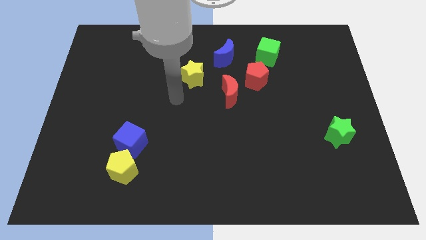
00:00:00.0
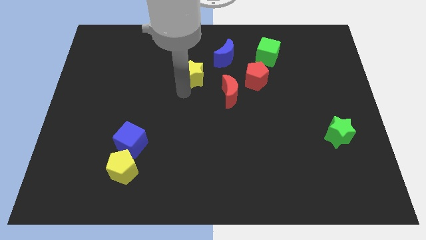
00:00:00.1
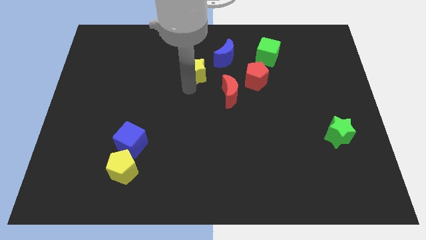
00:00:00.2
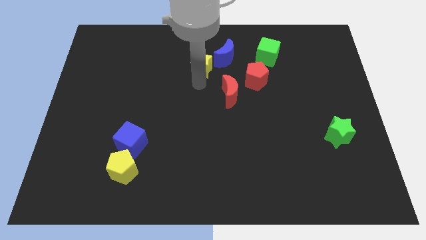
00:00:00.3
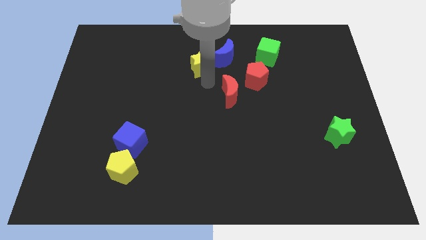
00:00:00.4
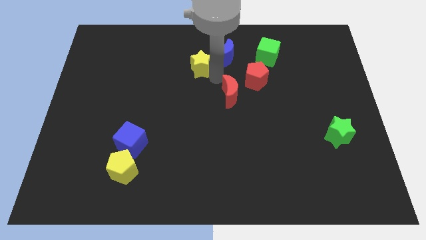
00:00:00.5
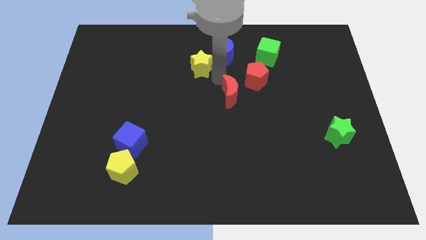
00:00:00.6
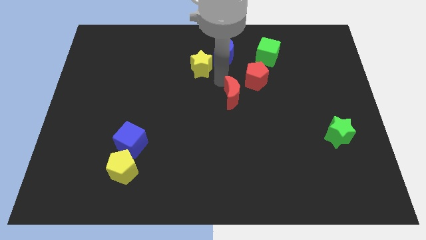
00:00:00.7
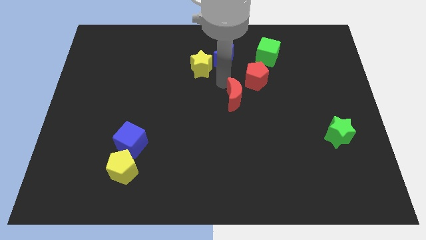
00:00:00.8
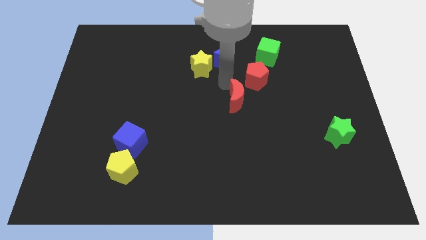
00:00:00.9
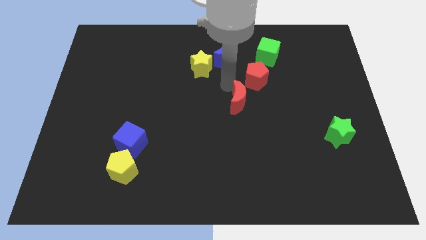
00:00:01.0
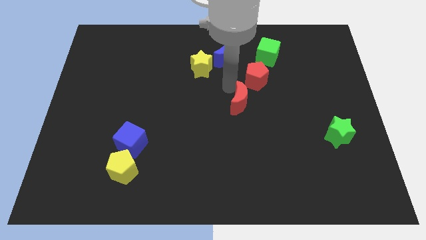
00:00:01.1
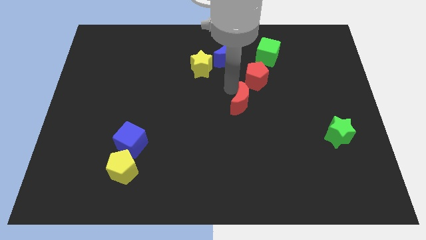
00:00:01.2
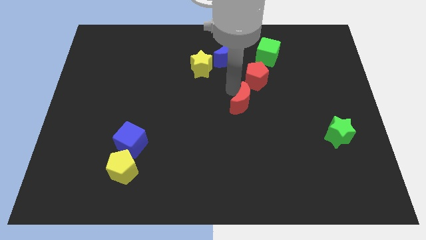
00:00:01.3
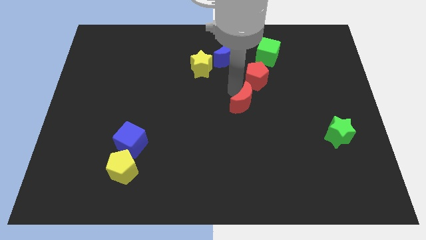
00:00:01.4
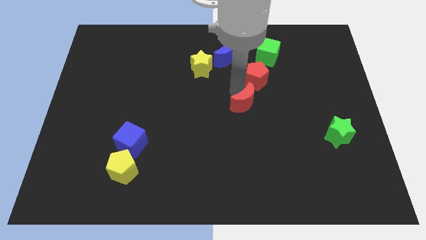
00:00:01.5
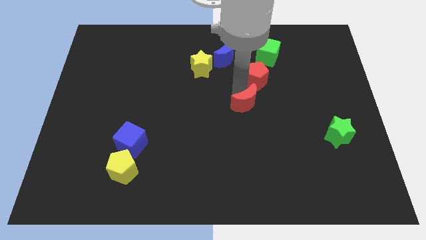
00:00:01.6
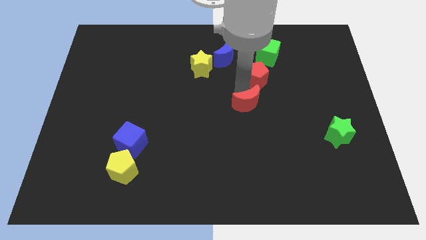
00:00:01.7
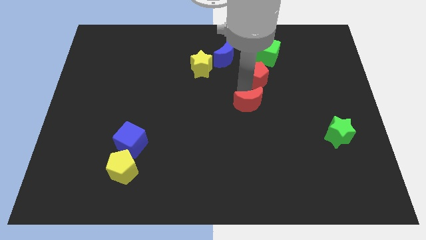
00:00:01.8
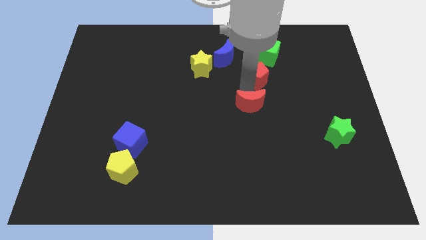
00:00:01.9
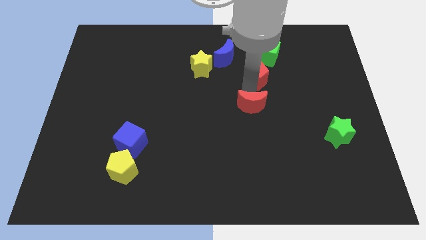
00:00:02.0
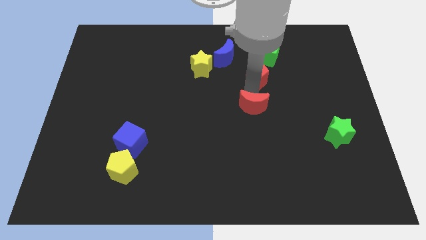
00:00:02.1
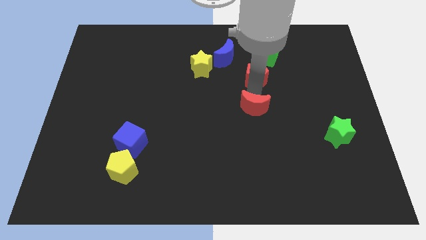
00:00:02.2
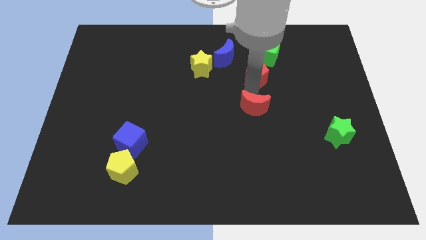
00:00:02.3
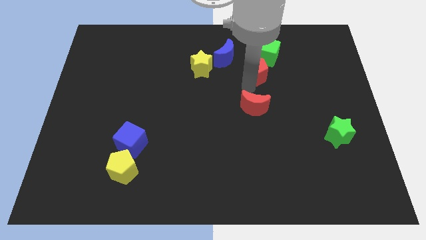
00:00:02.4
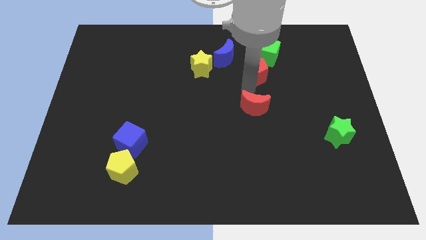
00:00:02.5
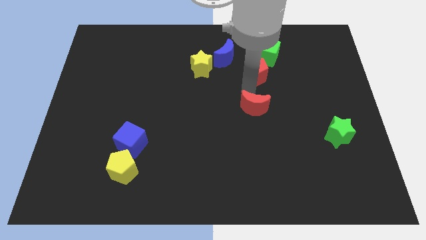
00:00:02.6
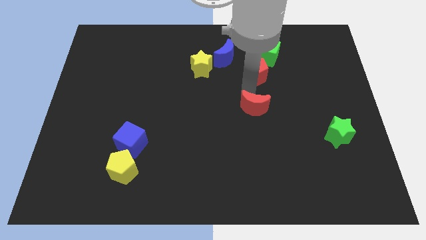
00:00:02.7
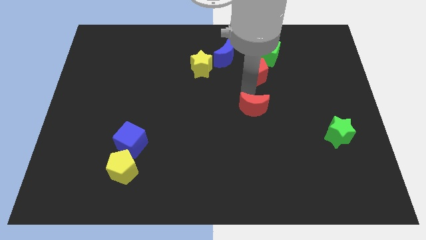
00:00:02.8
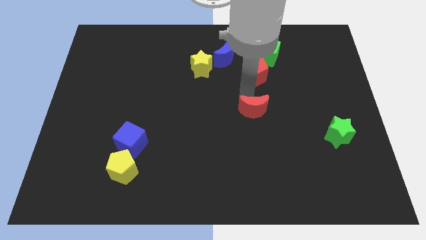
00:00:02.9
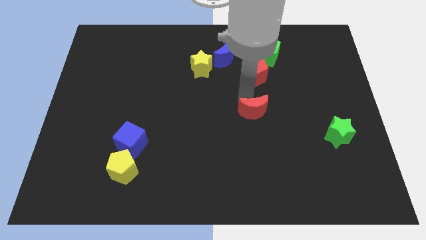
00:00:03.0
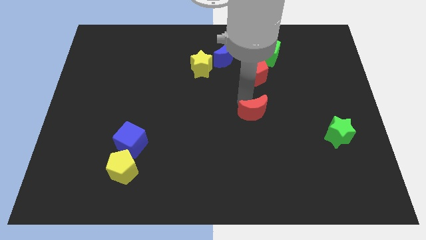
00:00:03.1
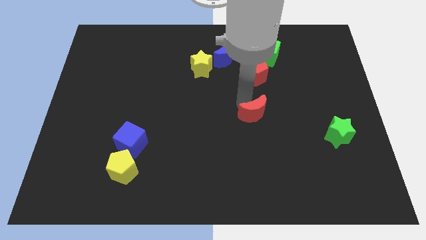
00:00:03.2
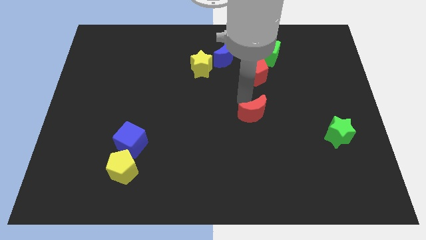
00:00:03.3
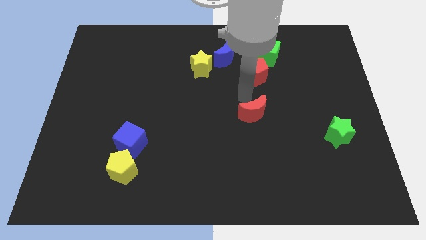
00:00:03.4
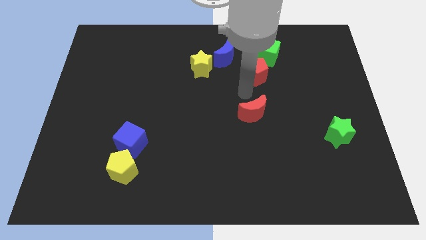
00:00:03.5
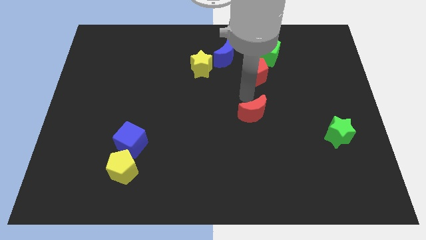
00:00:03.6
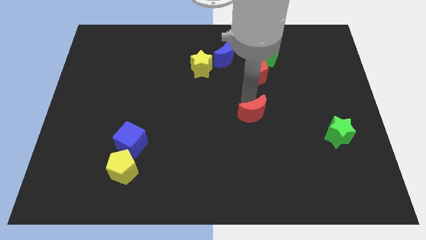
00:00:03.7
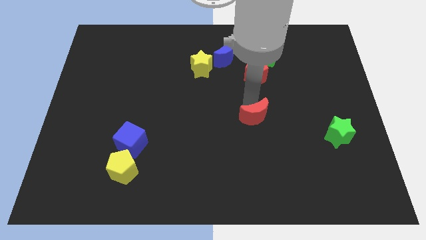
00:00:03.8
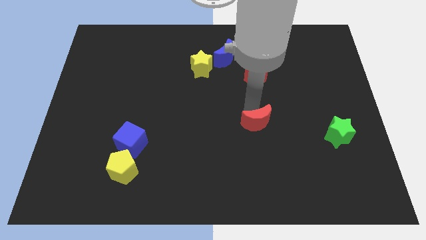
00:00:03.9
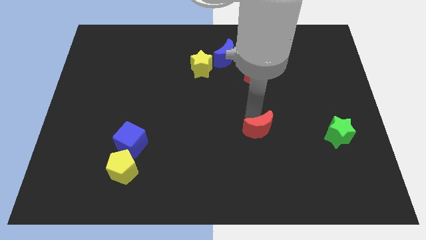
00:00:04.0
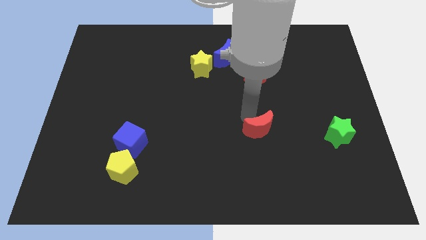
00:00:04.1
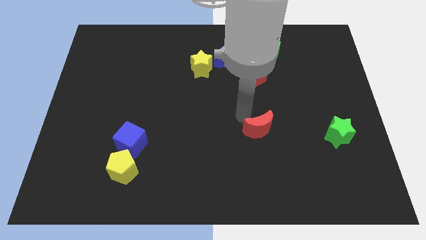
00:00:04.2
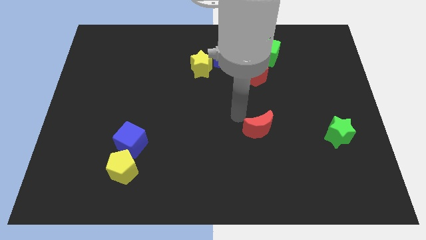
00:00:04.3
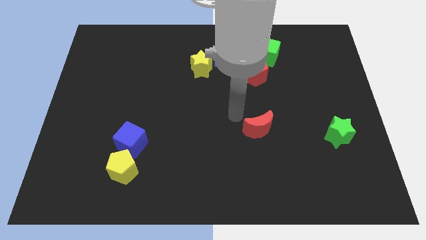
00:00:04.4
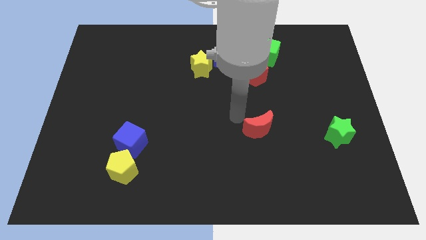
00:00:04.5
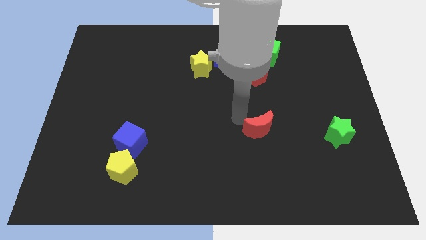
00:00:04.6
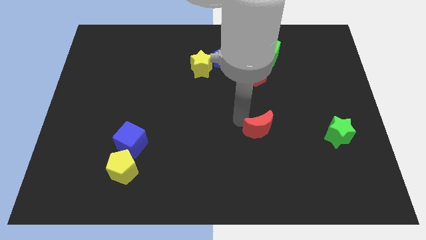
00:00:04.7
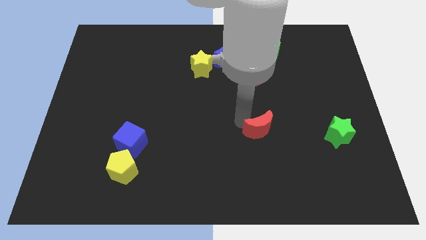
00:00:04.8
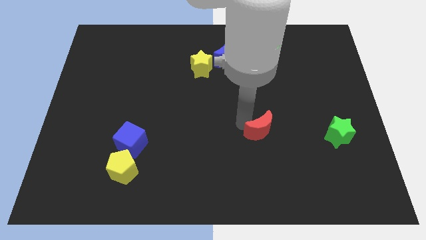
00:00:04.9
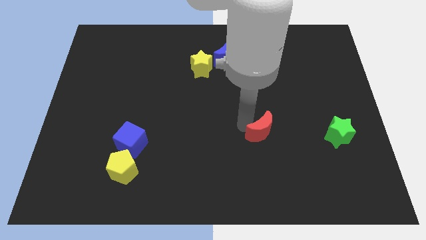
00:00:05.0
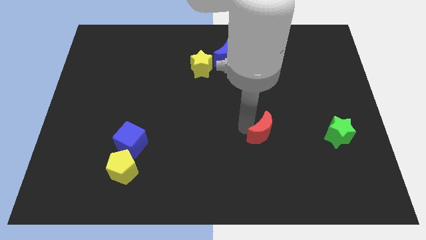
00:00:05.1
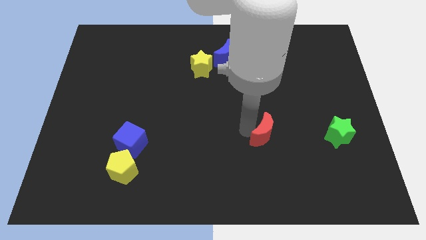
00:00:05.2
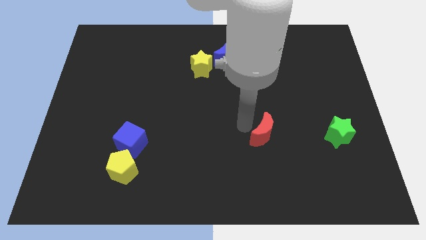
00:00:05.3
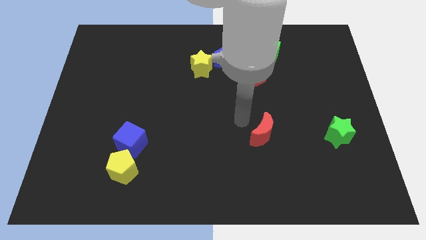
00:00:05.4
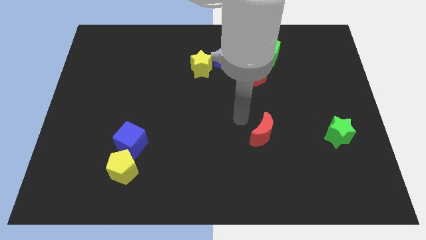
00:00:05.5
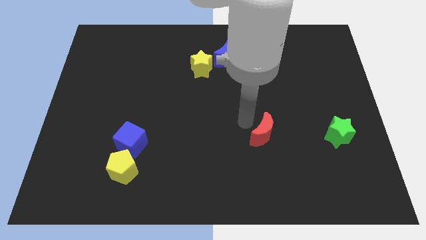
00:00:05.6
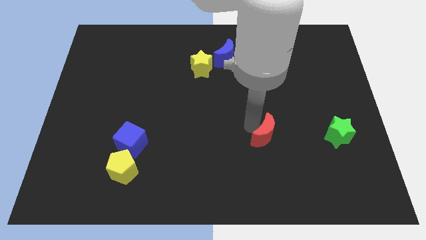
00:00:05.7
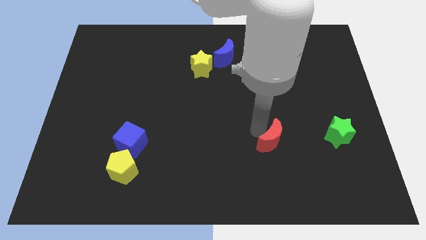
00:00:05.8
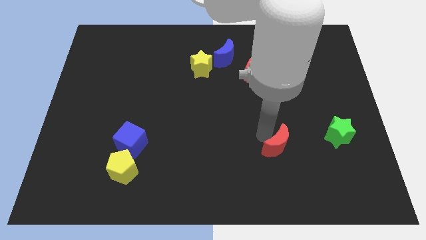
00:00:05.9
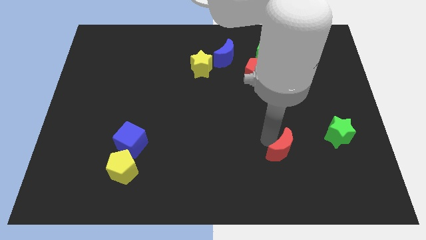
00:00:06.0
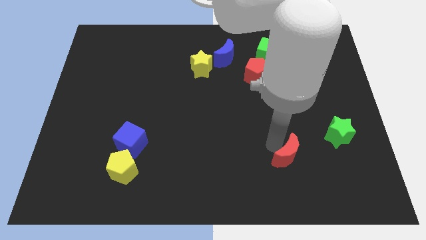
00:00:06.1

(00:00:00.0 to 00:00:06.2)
move the red moon downwards and to the right diagonally

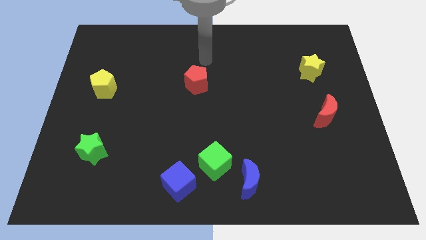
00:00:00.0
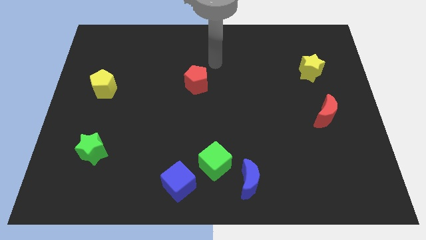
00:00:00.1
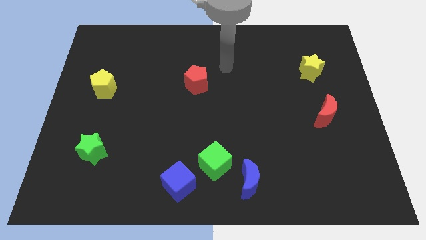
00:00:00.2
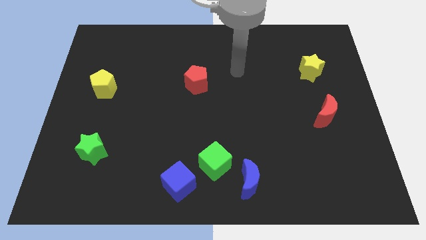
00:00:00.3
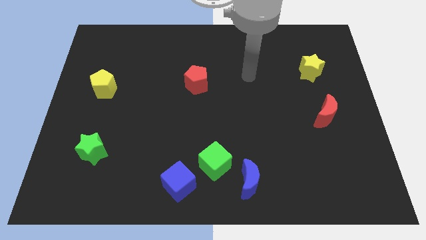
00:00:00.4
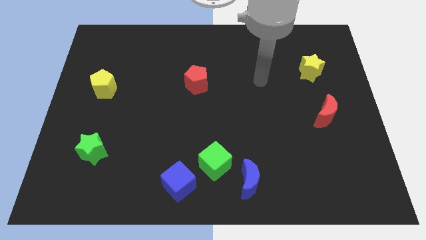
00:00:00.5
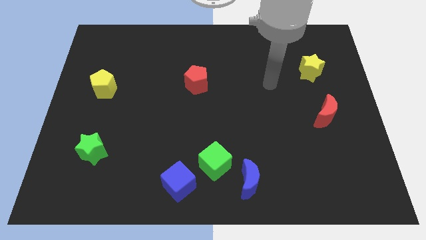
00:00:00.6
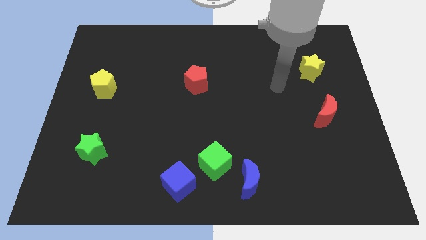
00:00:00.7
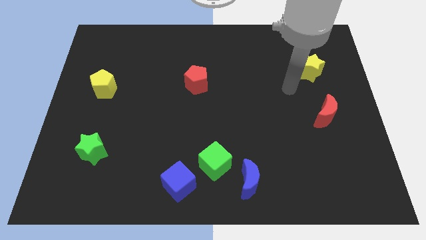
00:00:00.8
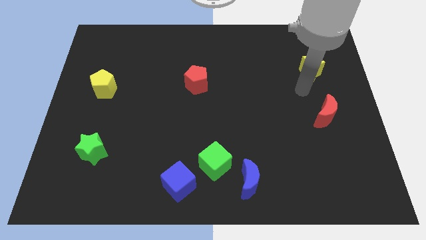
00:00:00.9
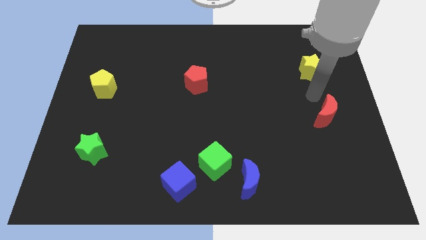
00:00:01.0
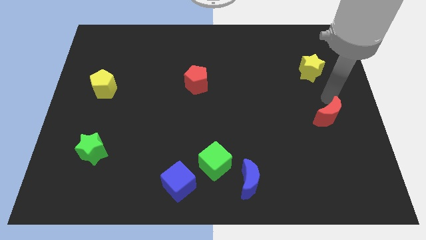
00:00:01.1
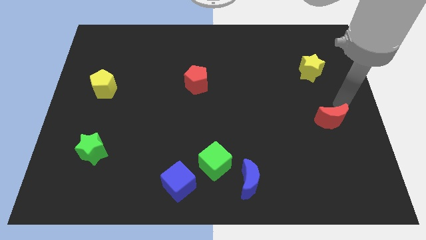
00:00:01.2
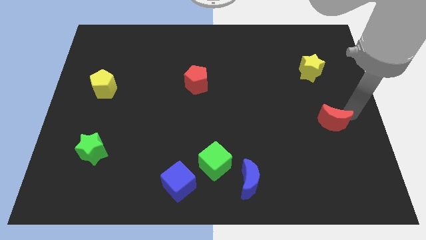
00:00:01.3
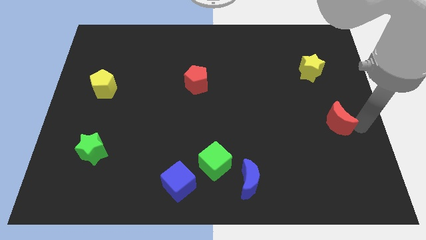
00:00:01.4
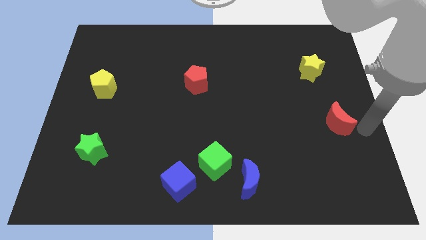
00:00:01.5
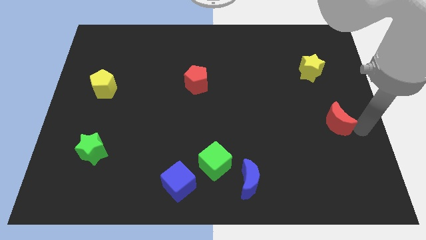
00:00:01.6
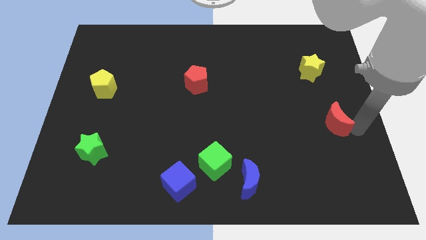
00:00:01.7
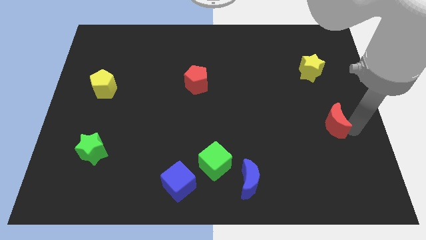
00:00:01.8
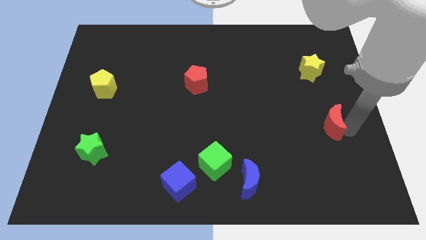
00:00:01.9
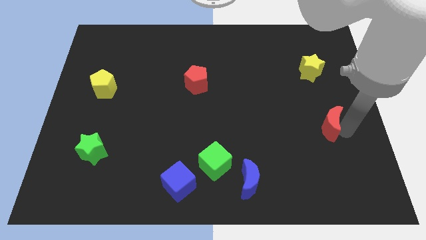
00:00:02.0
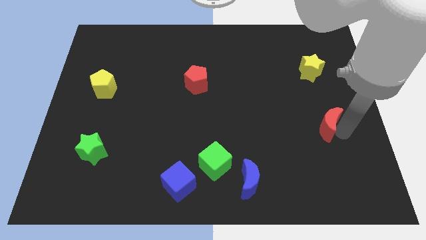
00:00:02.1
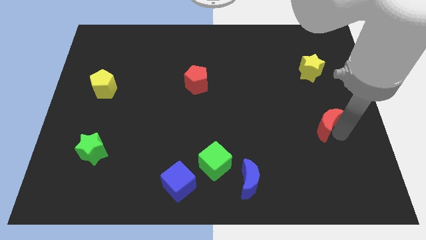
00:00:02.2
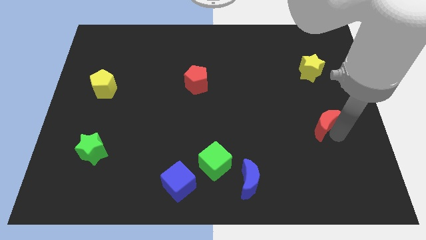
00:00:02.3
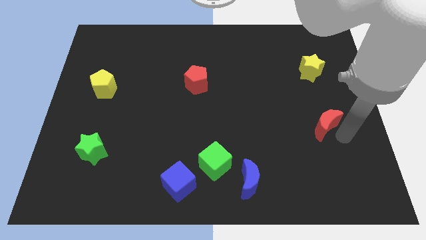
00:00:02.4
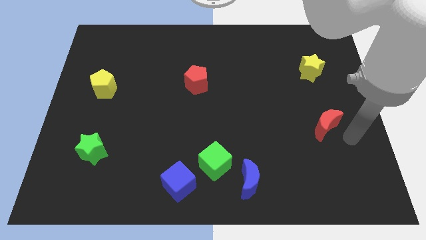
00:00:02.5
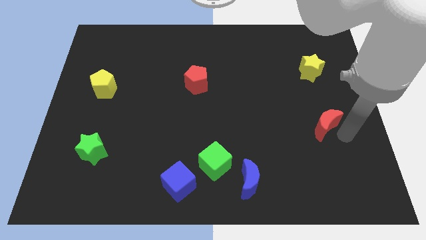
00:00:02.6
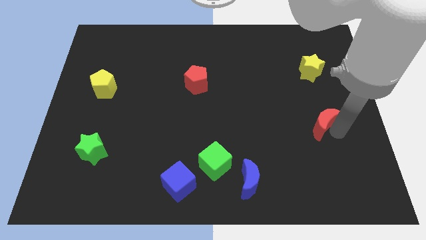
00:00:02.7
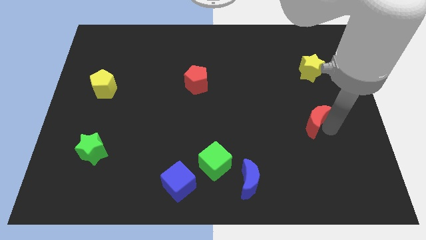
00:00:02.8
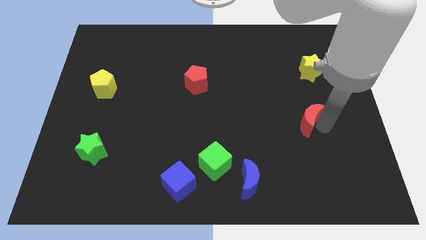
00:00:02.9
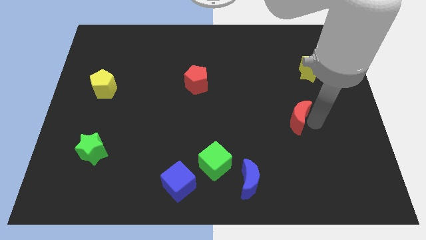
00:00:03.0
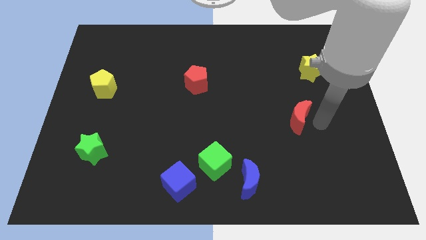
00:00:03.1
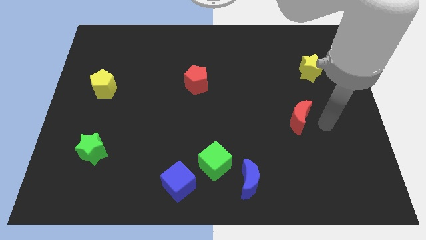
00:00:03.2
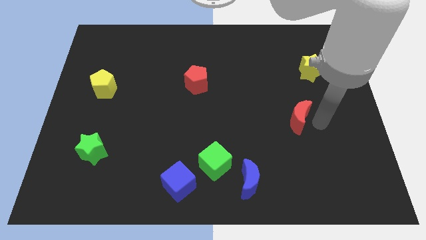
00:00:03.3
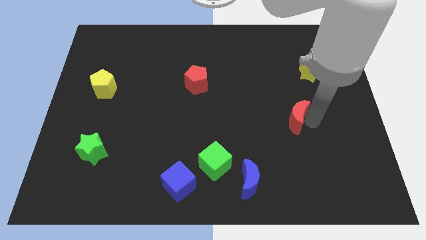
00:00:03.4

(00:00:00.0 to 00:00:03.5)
slide the red moon left a little
